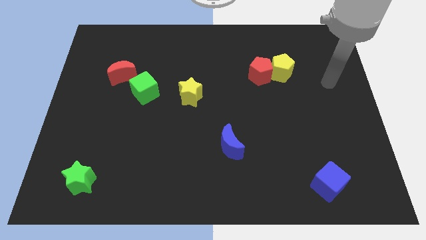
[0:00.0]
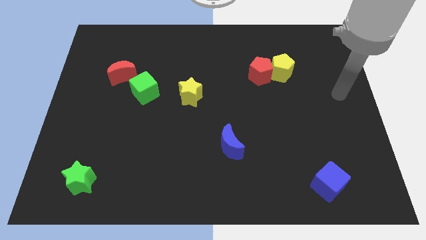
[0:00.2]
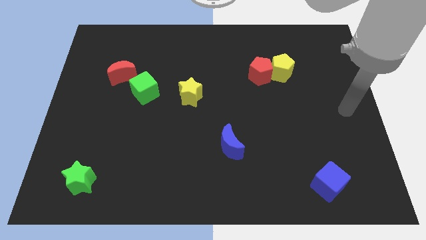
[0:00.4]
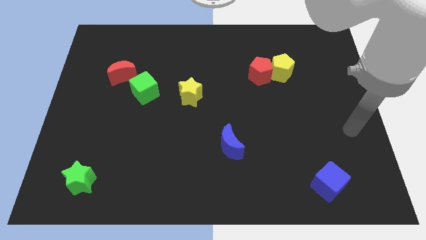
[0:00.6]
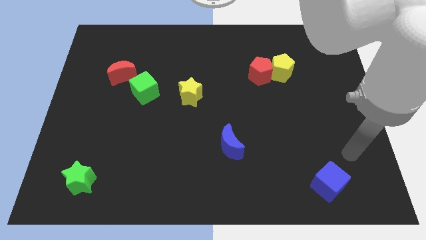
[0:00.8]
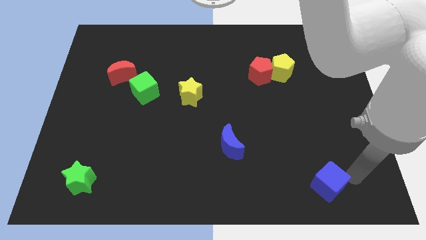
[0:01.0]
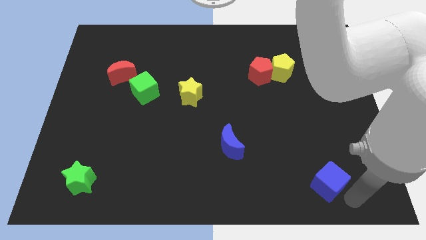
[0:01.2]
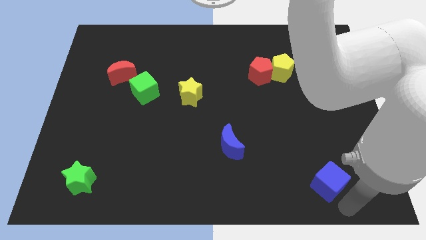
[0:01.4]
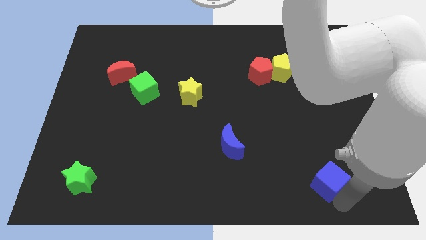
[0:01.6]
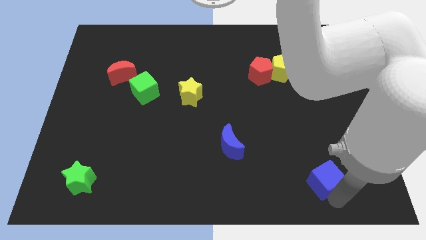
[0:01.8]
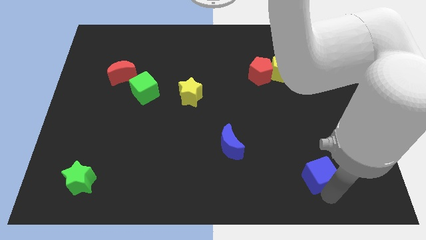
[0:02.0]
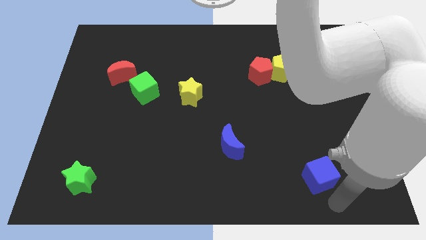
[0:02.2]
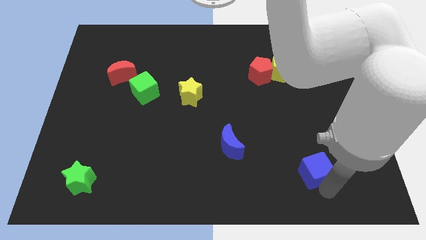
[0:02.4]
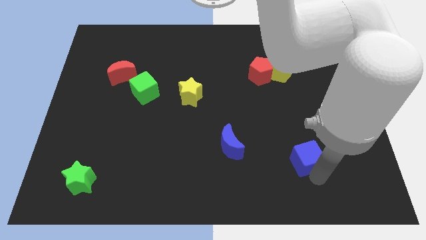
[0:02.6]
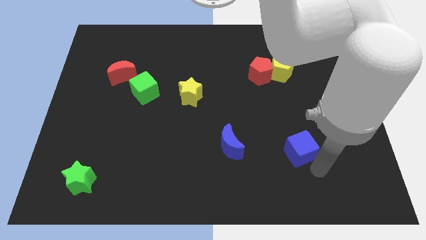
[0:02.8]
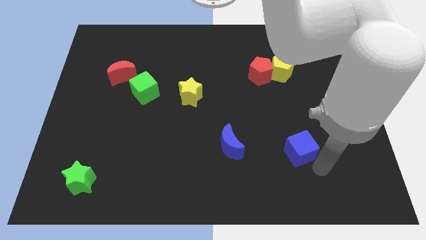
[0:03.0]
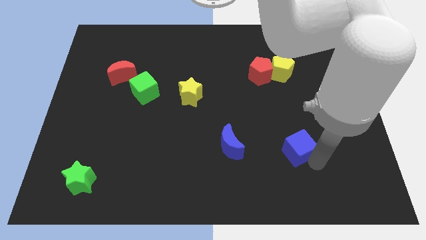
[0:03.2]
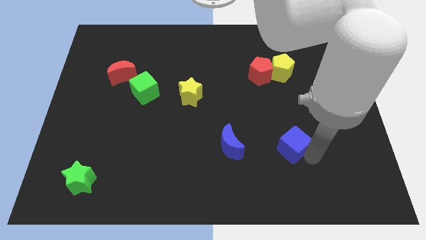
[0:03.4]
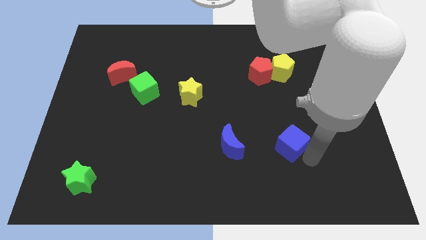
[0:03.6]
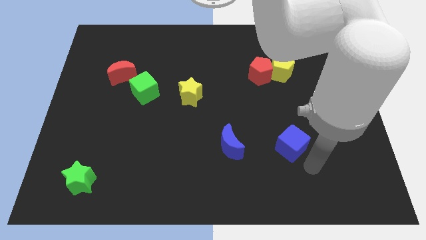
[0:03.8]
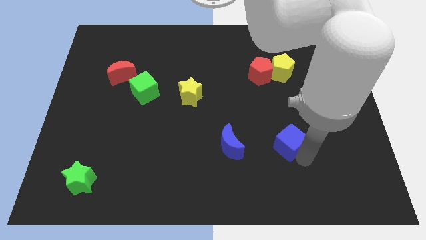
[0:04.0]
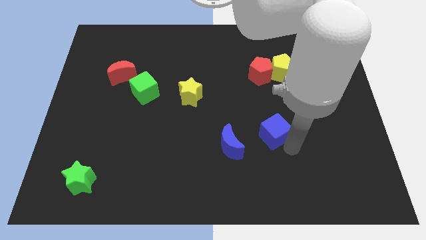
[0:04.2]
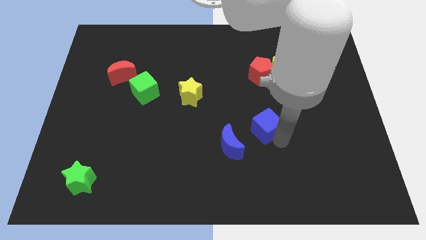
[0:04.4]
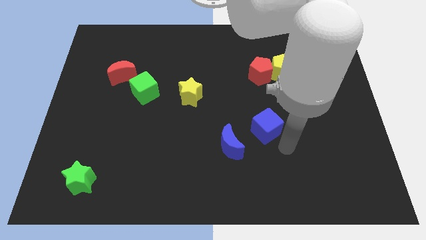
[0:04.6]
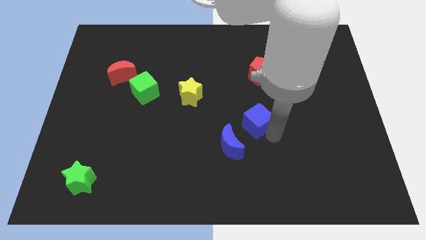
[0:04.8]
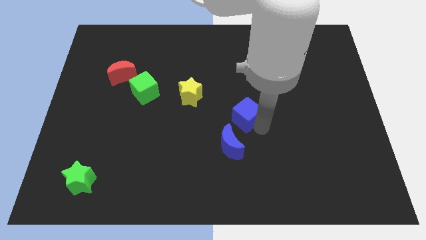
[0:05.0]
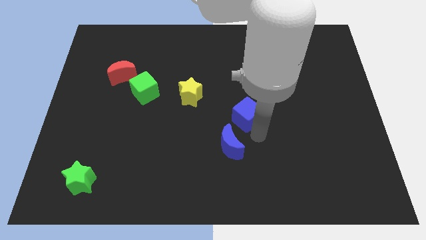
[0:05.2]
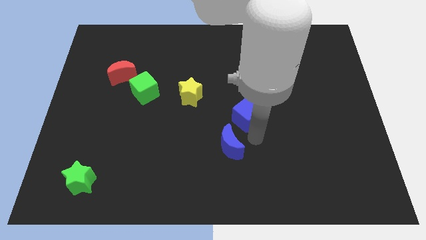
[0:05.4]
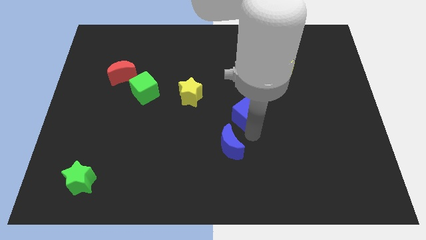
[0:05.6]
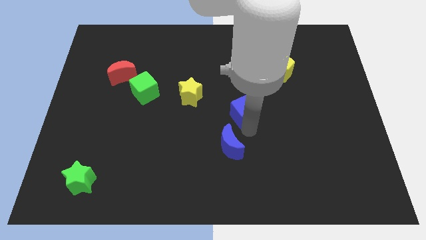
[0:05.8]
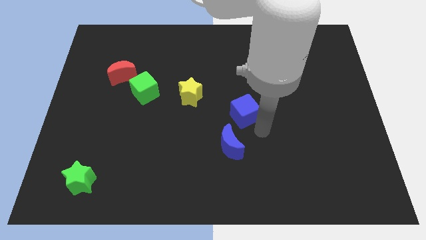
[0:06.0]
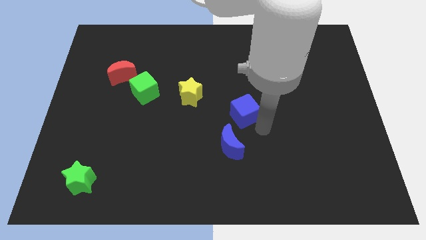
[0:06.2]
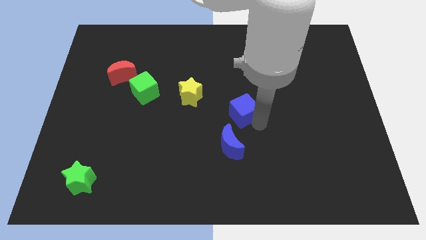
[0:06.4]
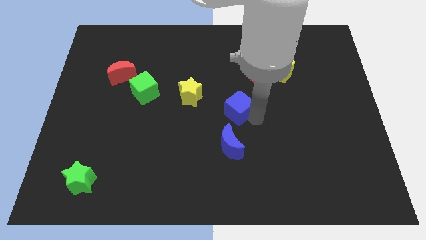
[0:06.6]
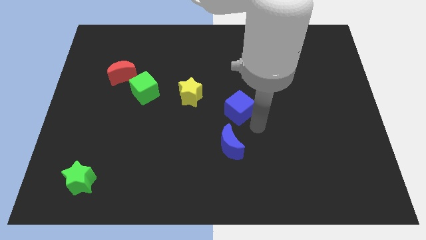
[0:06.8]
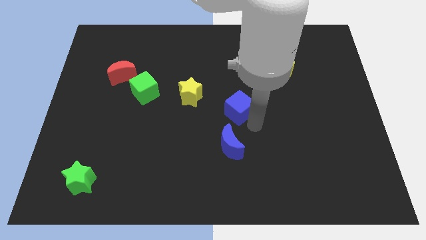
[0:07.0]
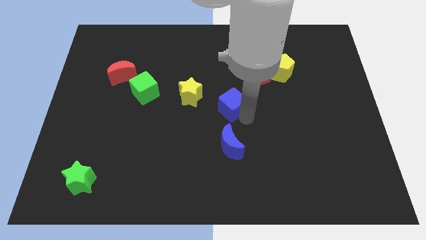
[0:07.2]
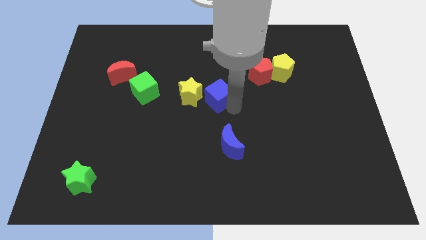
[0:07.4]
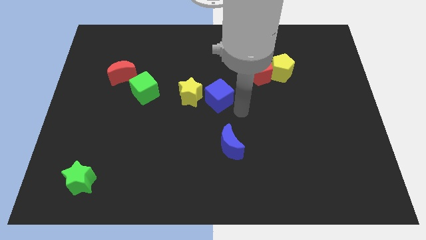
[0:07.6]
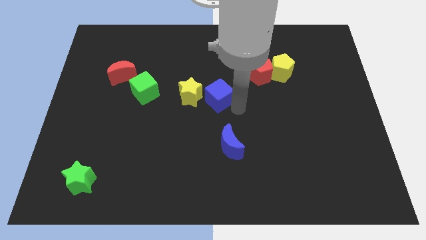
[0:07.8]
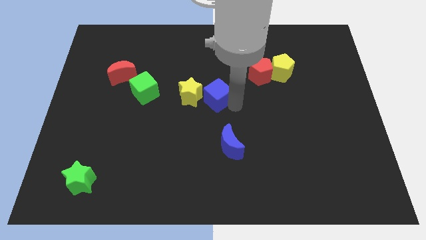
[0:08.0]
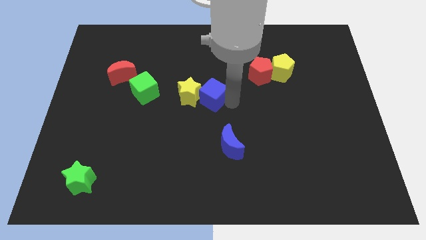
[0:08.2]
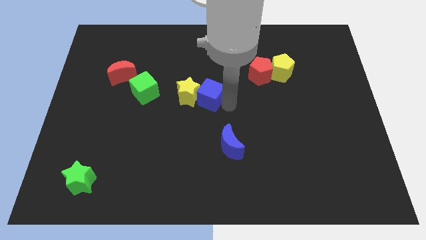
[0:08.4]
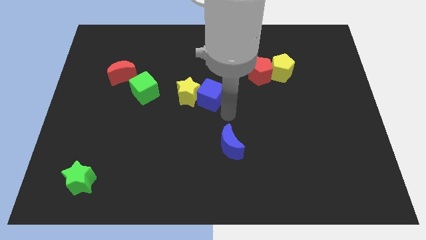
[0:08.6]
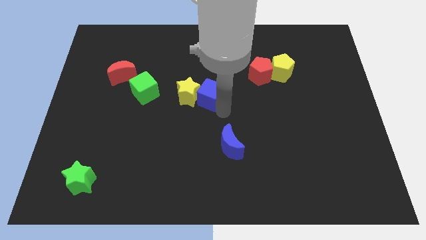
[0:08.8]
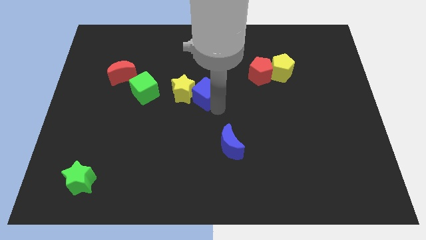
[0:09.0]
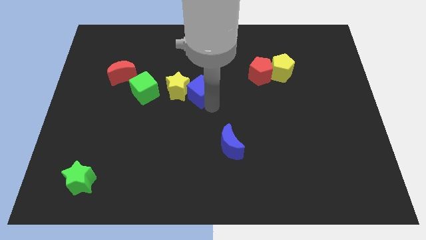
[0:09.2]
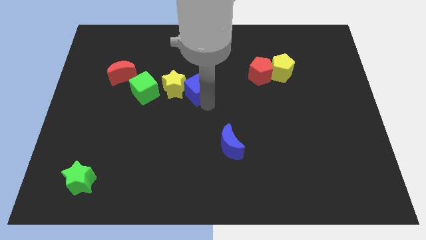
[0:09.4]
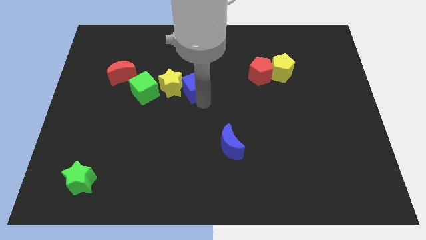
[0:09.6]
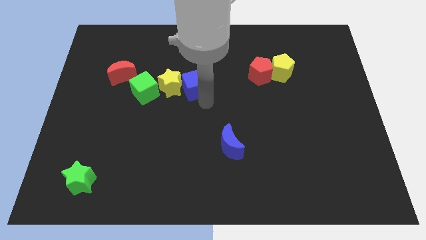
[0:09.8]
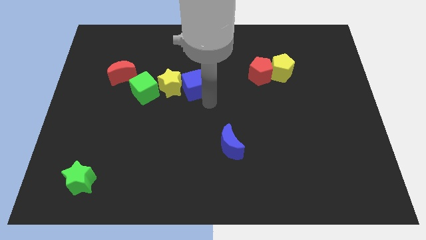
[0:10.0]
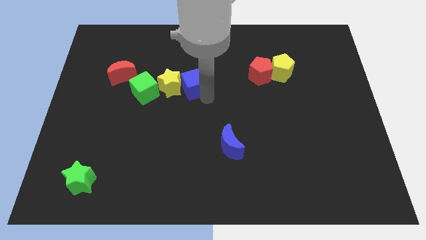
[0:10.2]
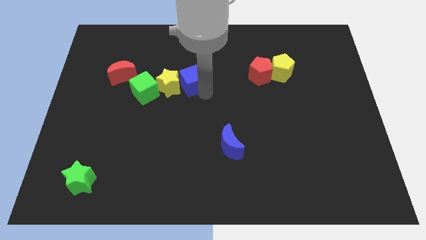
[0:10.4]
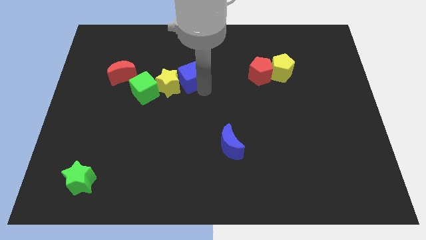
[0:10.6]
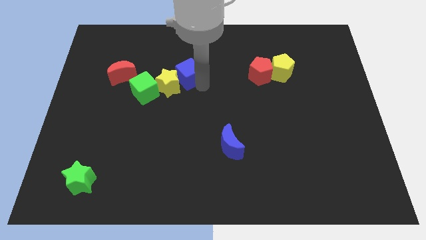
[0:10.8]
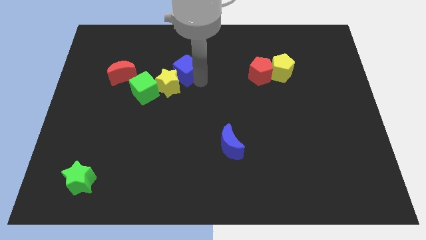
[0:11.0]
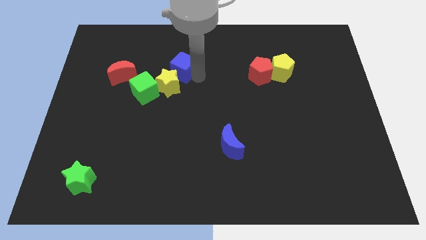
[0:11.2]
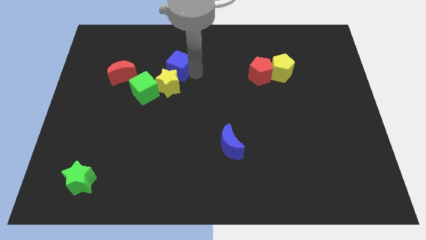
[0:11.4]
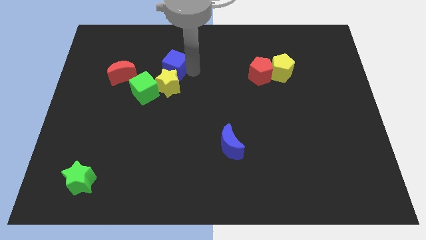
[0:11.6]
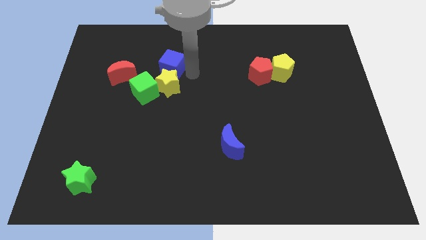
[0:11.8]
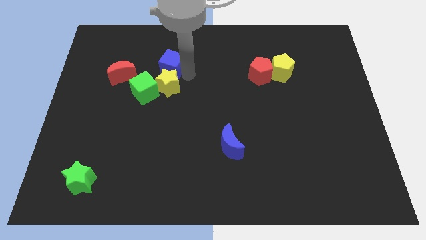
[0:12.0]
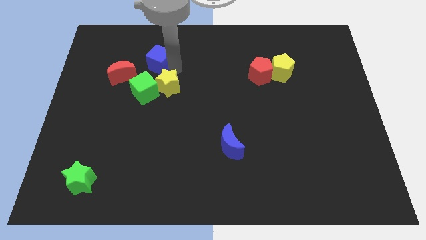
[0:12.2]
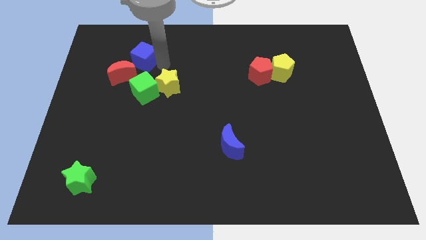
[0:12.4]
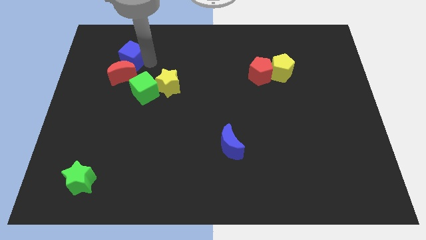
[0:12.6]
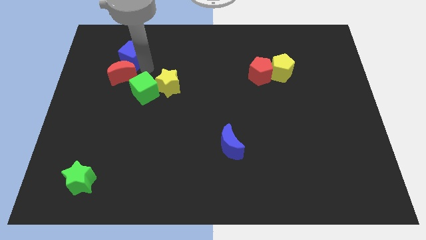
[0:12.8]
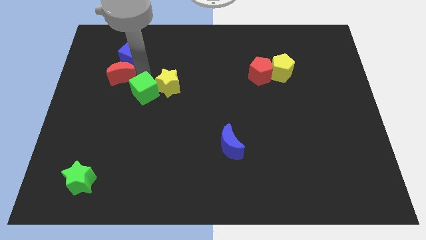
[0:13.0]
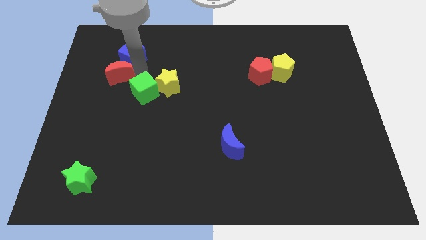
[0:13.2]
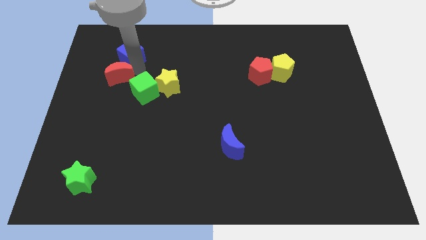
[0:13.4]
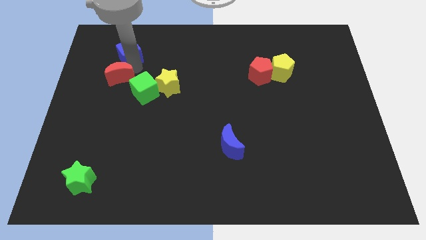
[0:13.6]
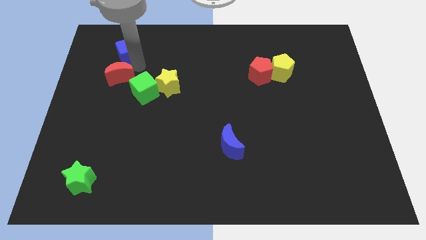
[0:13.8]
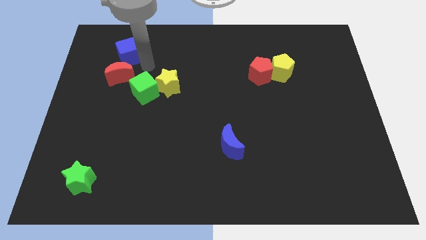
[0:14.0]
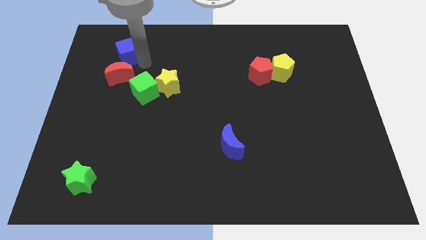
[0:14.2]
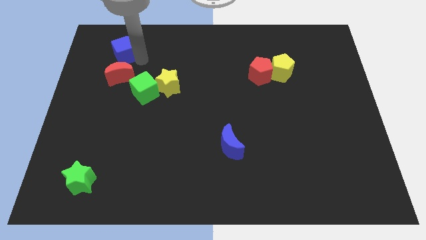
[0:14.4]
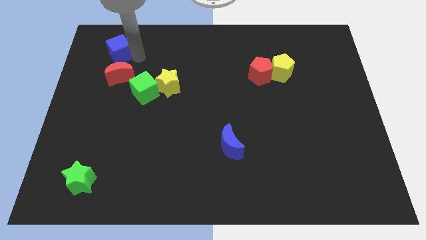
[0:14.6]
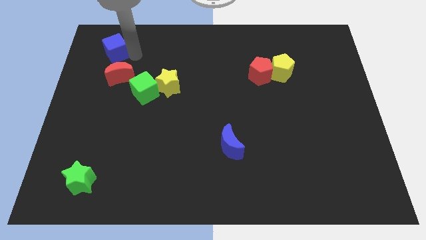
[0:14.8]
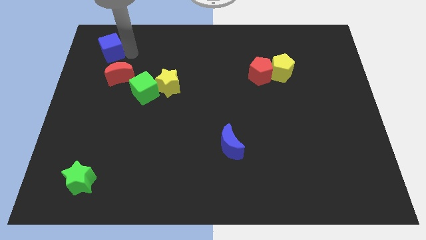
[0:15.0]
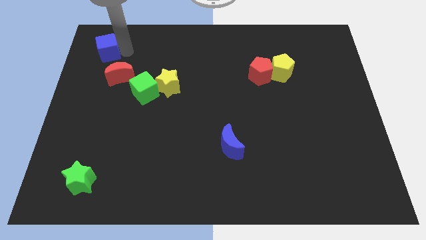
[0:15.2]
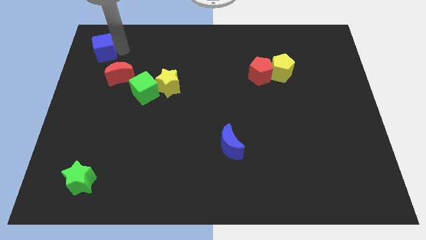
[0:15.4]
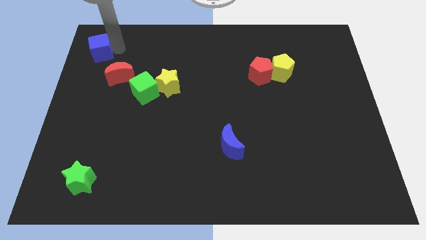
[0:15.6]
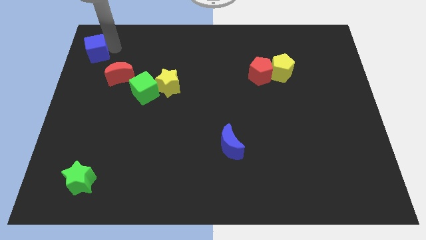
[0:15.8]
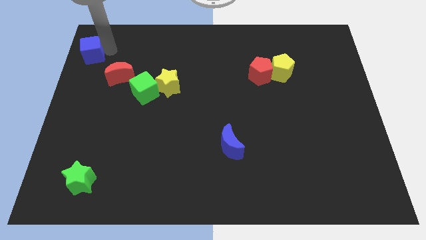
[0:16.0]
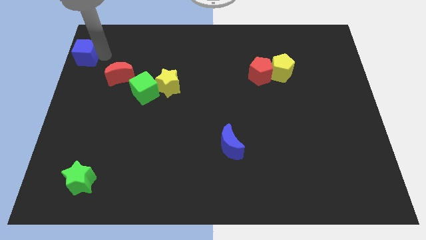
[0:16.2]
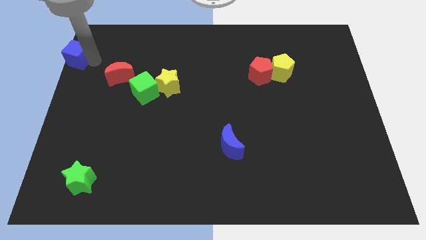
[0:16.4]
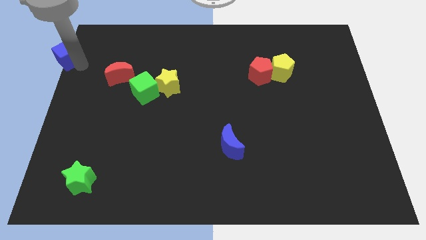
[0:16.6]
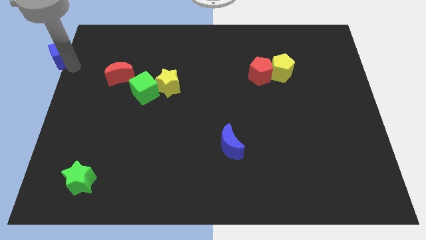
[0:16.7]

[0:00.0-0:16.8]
slide the blue cube to the top left
